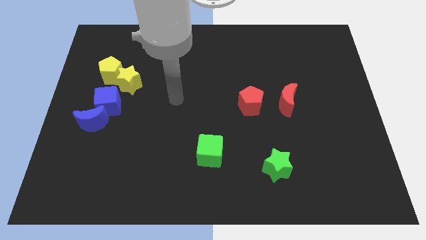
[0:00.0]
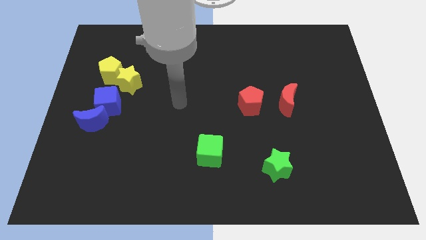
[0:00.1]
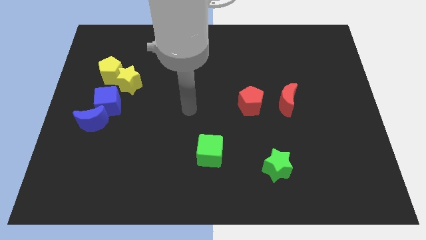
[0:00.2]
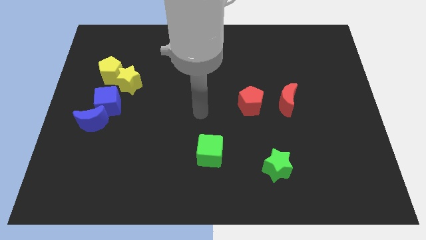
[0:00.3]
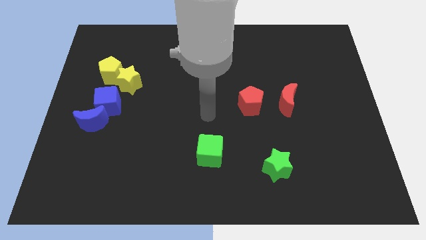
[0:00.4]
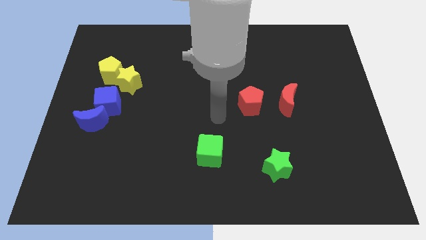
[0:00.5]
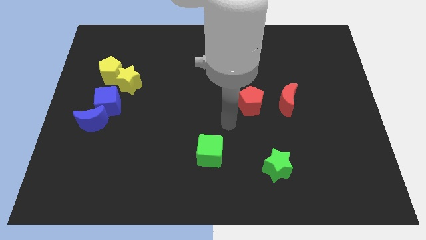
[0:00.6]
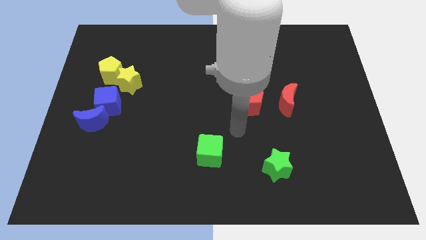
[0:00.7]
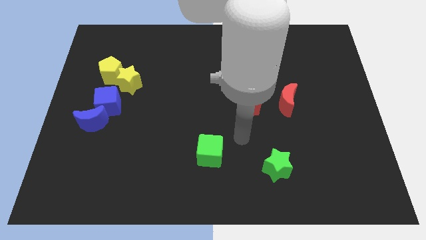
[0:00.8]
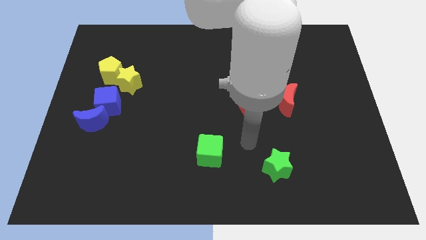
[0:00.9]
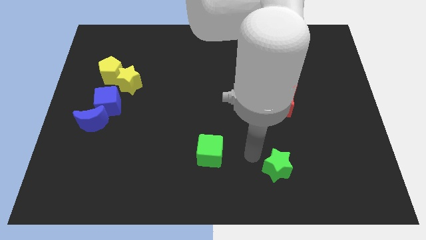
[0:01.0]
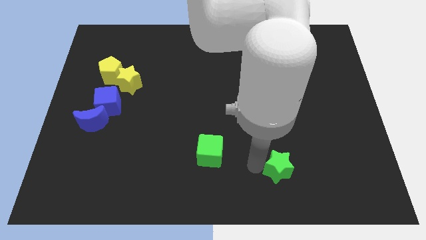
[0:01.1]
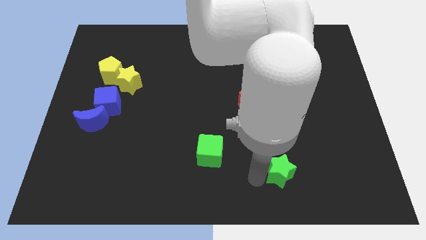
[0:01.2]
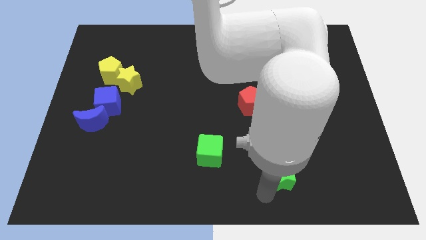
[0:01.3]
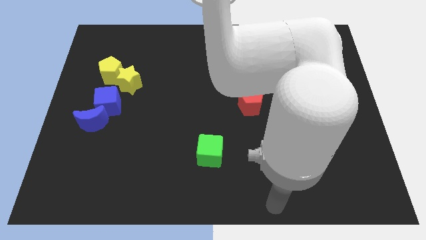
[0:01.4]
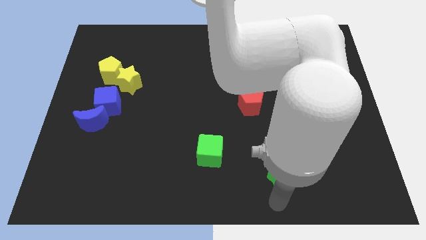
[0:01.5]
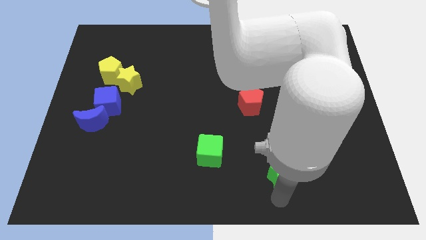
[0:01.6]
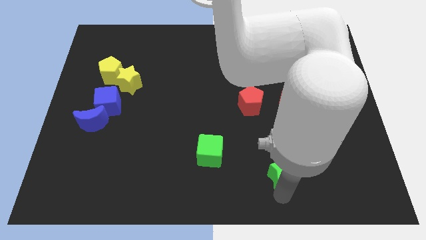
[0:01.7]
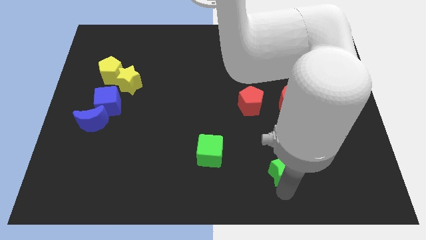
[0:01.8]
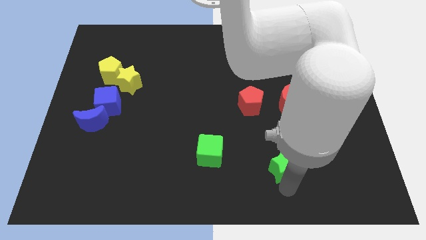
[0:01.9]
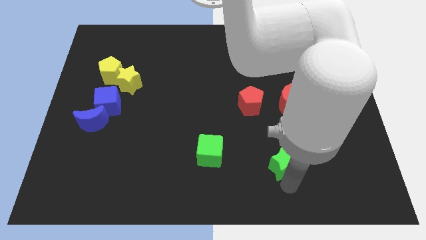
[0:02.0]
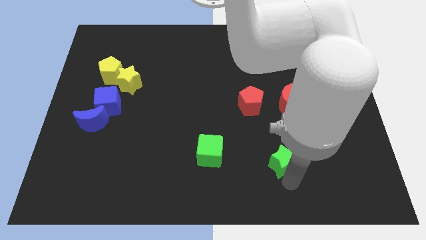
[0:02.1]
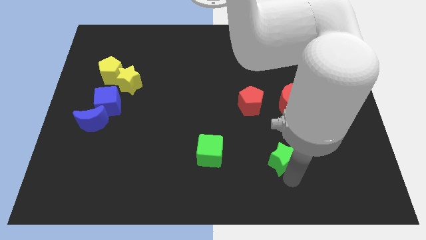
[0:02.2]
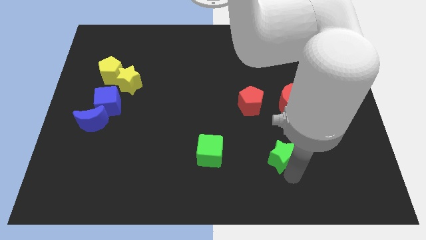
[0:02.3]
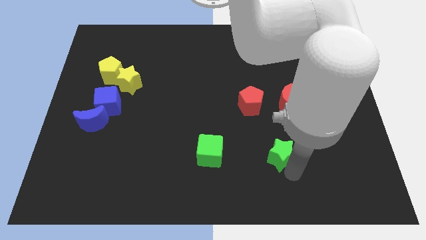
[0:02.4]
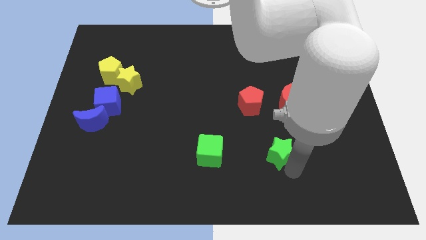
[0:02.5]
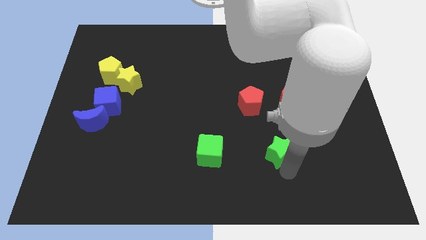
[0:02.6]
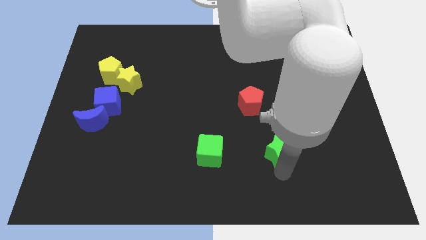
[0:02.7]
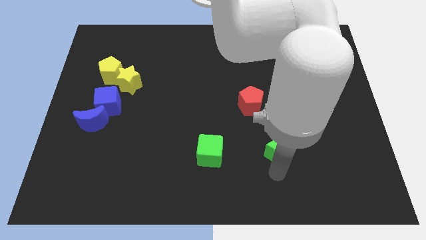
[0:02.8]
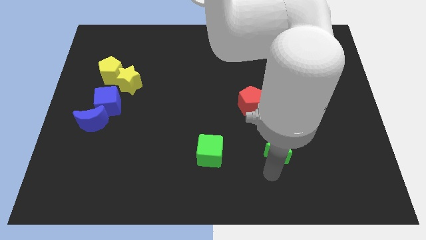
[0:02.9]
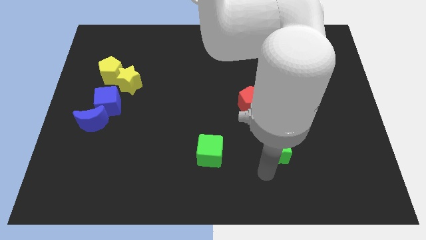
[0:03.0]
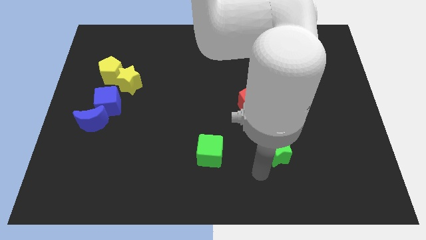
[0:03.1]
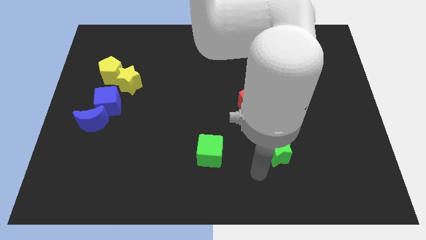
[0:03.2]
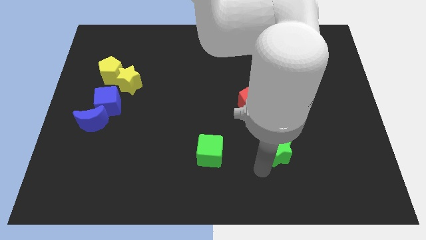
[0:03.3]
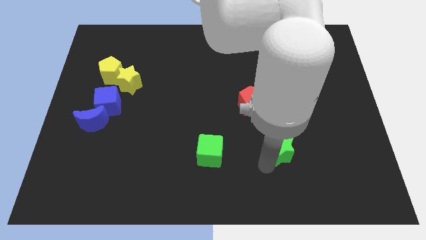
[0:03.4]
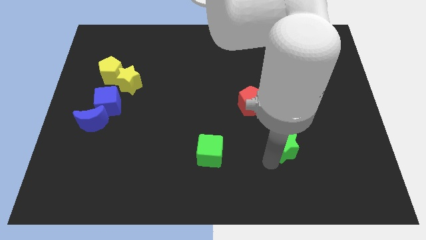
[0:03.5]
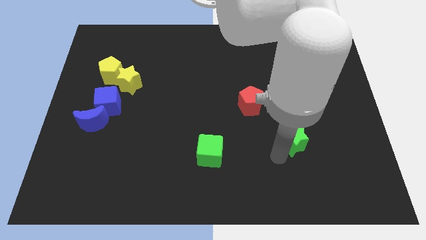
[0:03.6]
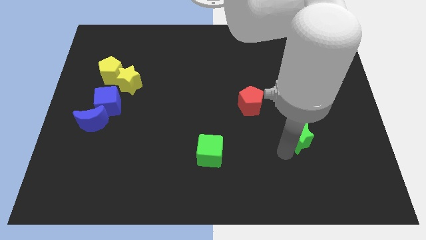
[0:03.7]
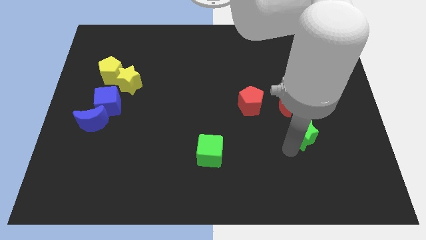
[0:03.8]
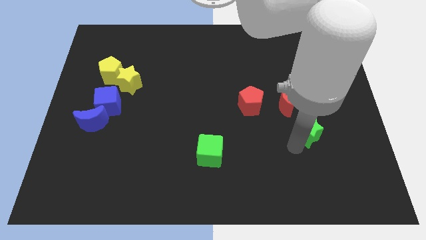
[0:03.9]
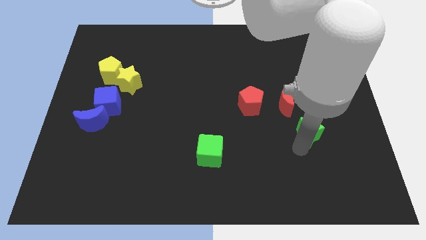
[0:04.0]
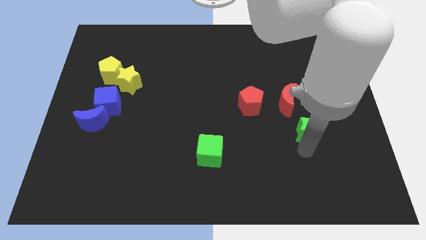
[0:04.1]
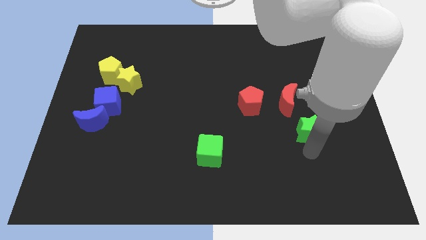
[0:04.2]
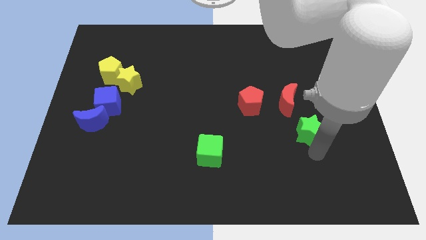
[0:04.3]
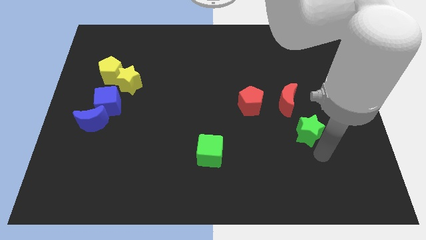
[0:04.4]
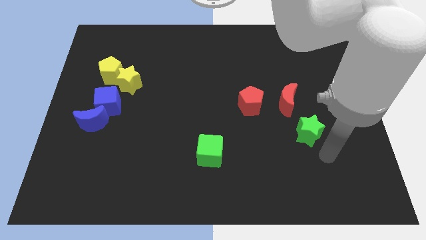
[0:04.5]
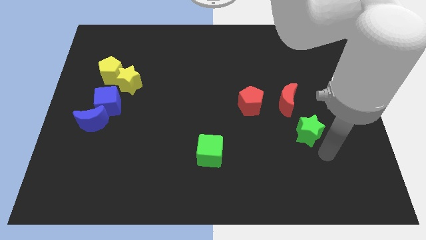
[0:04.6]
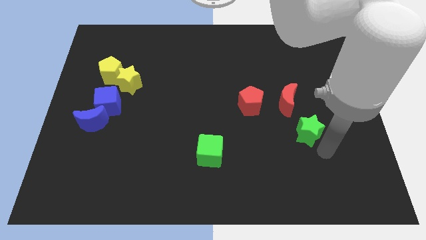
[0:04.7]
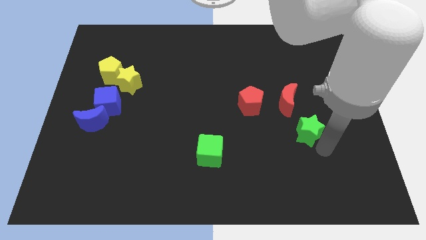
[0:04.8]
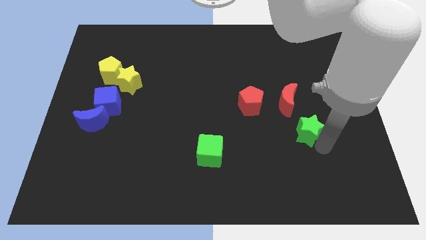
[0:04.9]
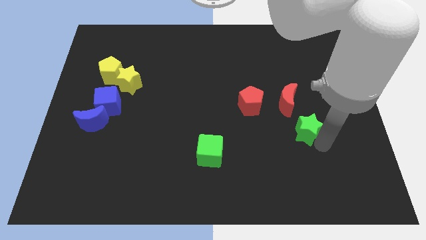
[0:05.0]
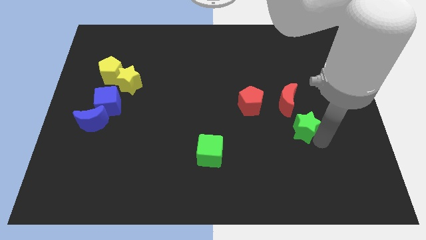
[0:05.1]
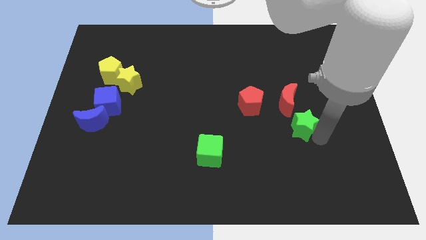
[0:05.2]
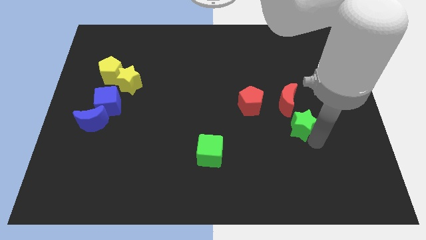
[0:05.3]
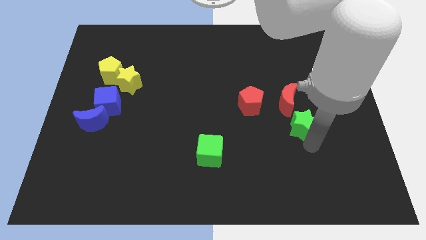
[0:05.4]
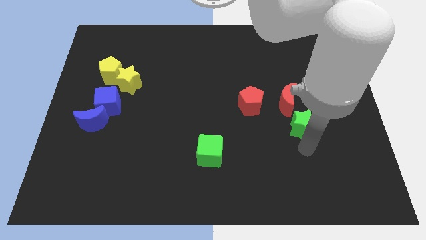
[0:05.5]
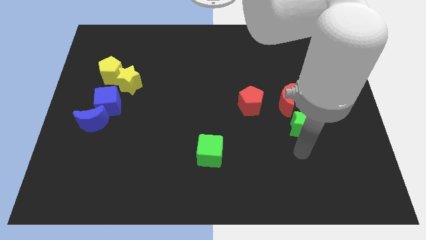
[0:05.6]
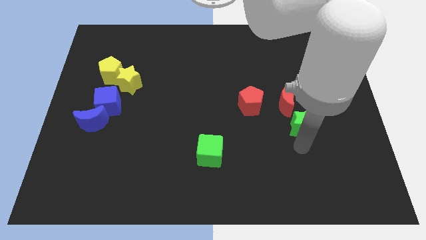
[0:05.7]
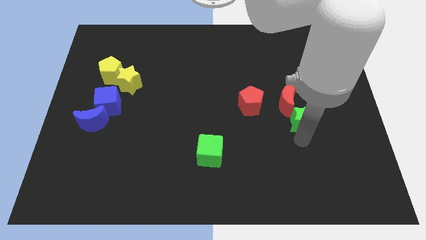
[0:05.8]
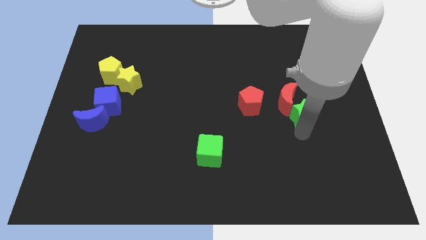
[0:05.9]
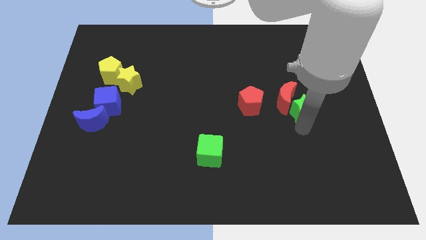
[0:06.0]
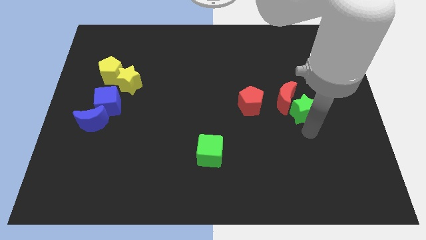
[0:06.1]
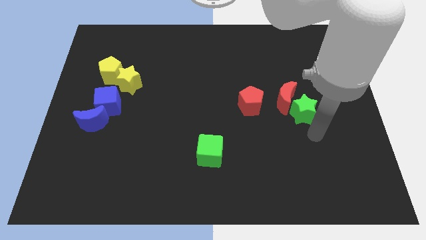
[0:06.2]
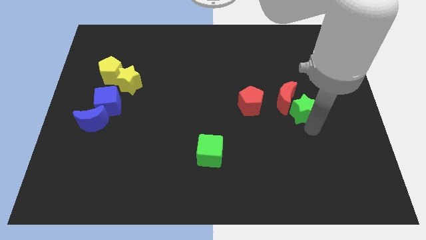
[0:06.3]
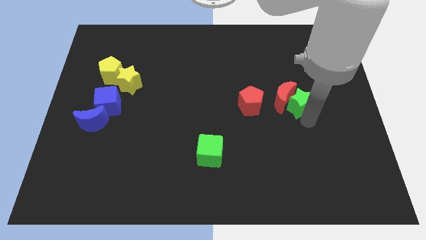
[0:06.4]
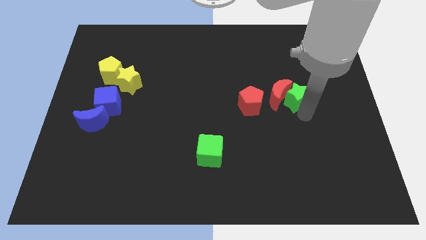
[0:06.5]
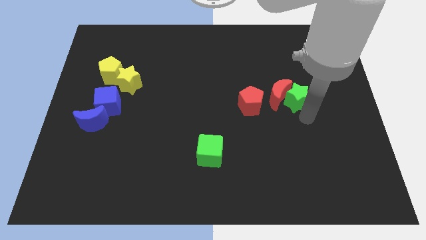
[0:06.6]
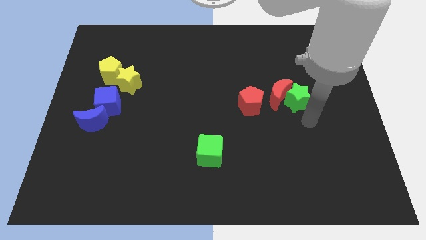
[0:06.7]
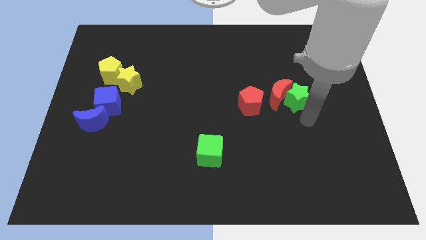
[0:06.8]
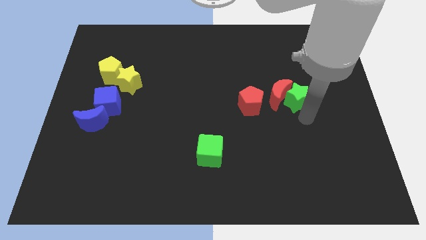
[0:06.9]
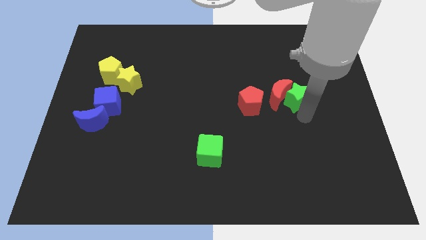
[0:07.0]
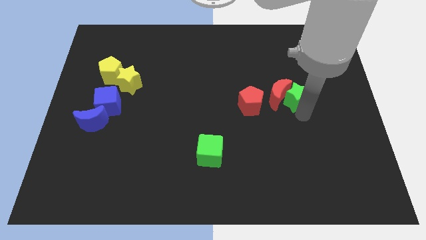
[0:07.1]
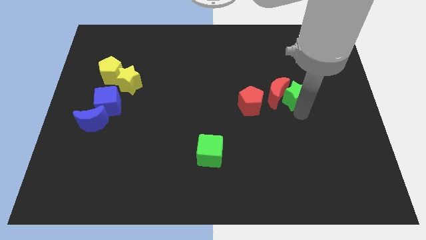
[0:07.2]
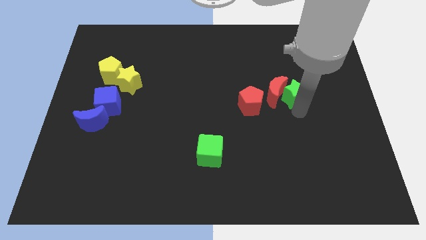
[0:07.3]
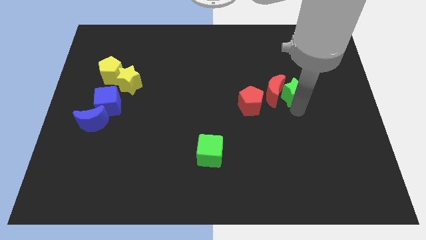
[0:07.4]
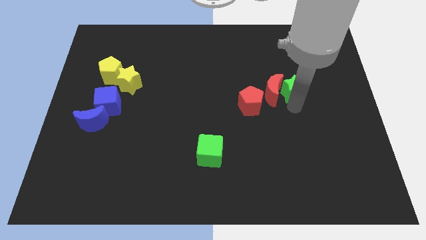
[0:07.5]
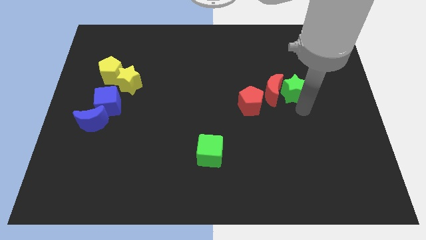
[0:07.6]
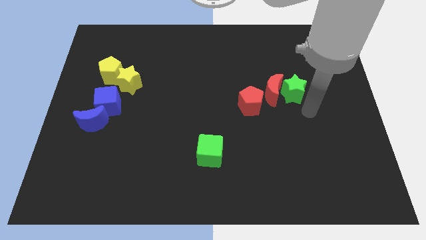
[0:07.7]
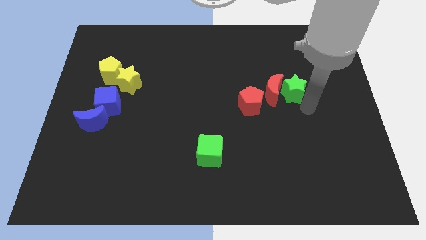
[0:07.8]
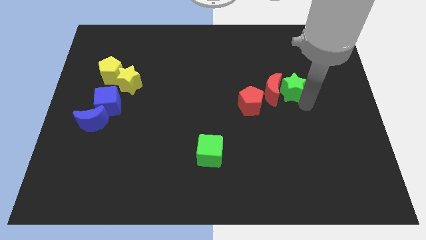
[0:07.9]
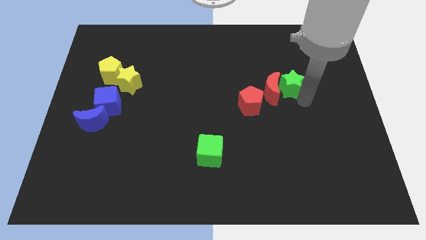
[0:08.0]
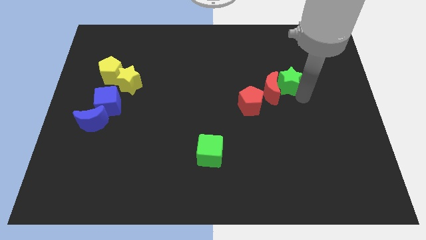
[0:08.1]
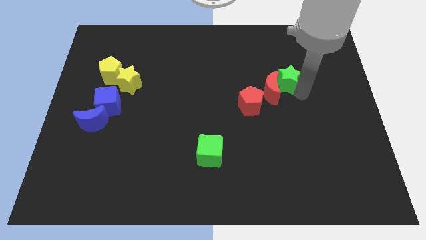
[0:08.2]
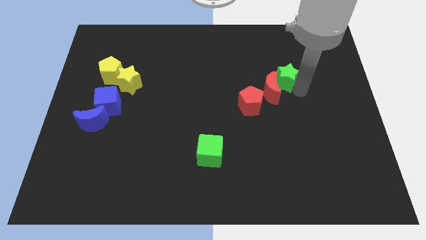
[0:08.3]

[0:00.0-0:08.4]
slide the green star to the top side of the red moon
